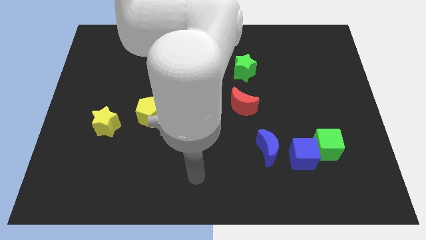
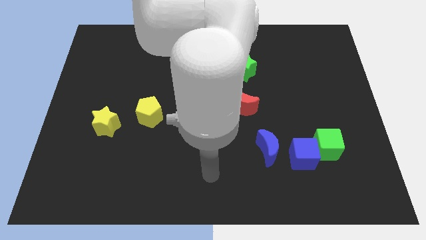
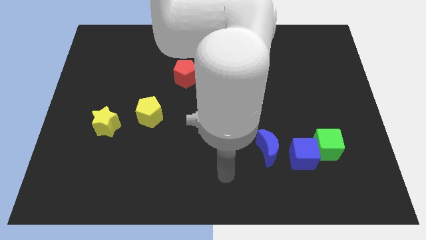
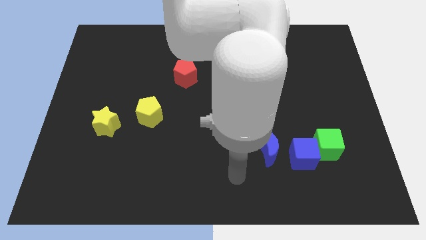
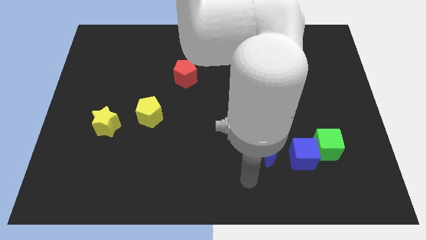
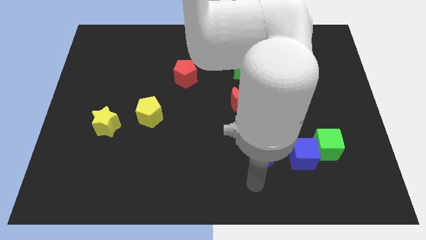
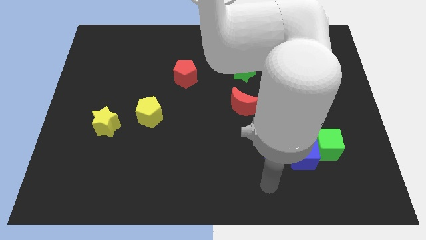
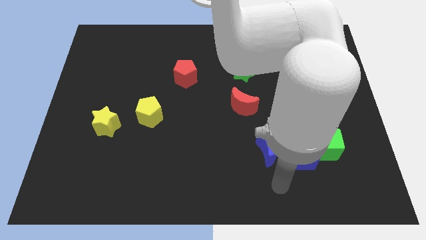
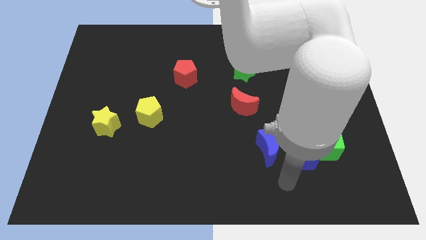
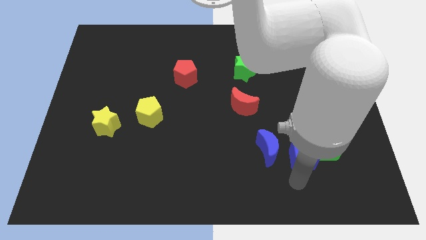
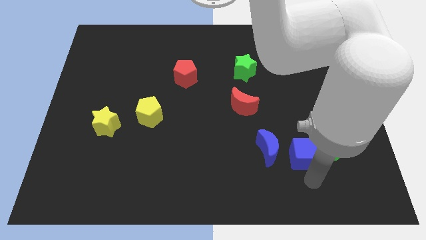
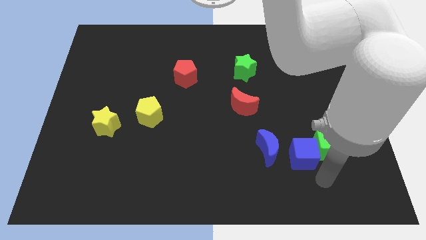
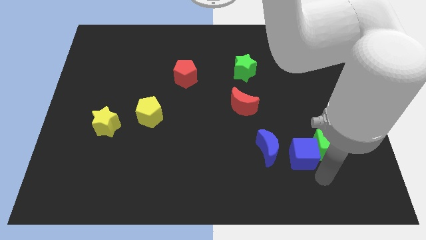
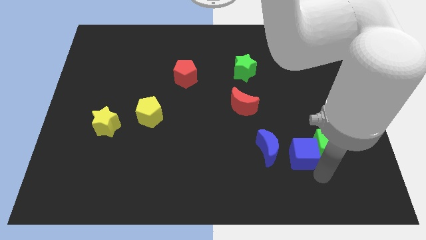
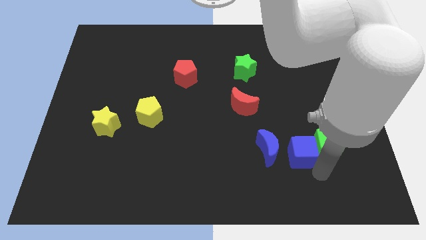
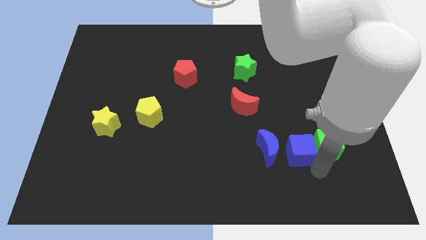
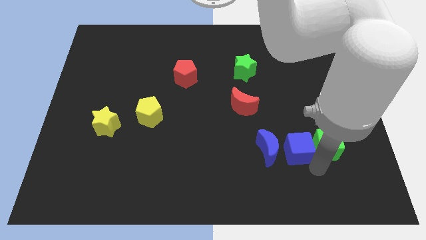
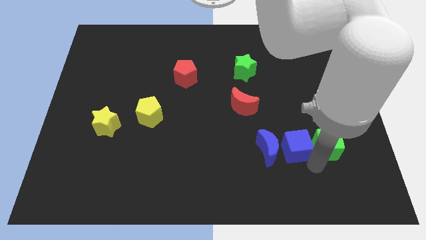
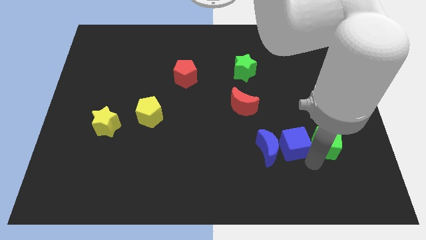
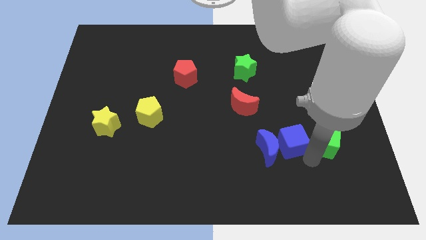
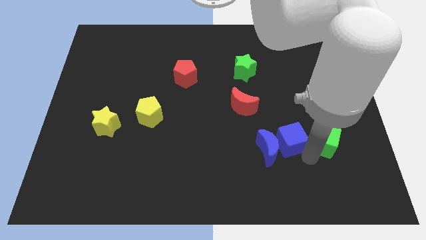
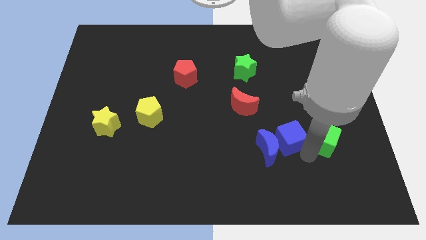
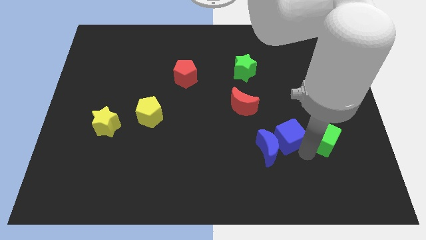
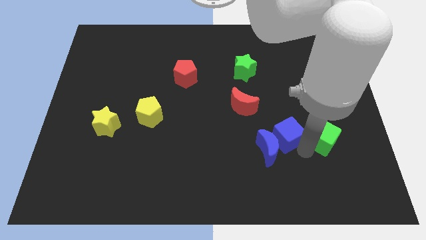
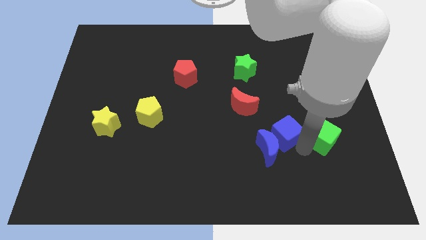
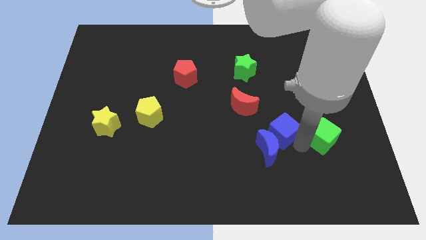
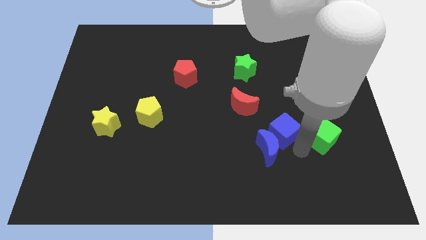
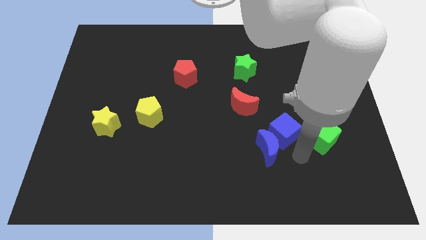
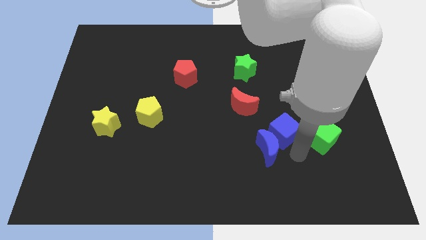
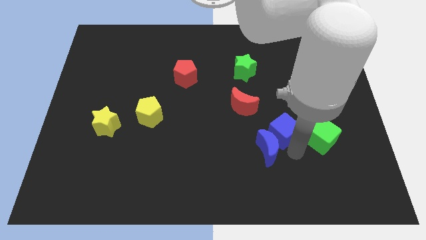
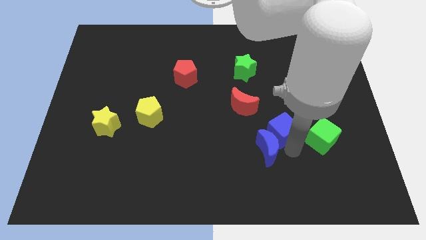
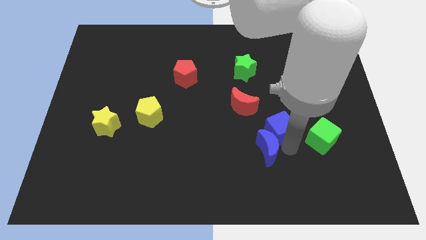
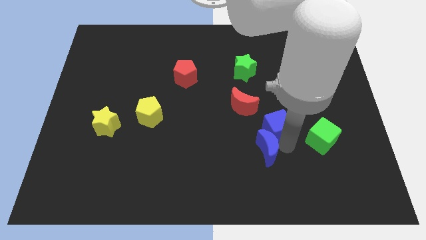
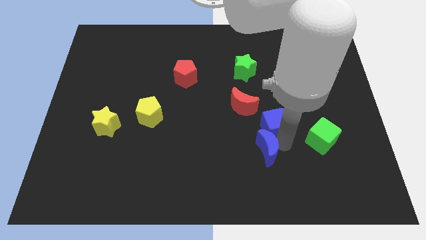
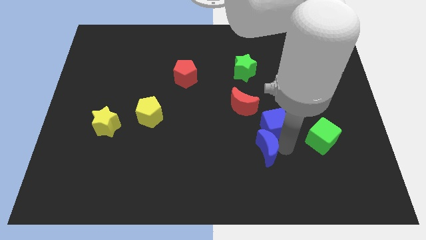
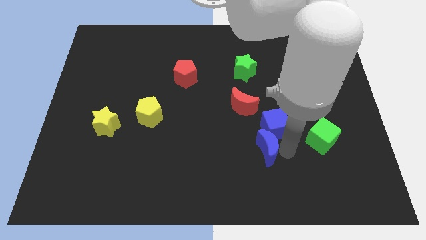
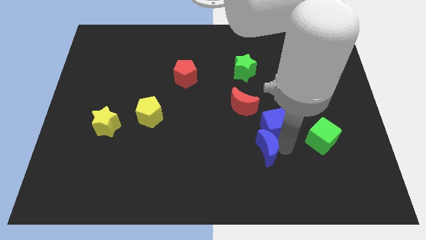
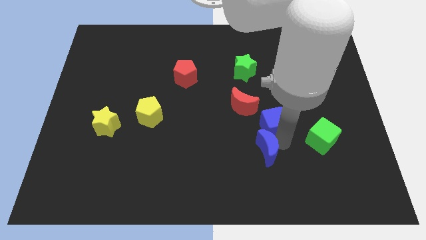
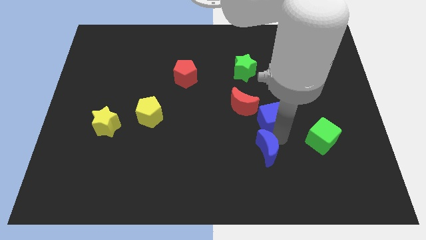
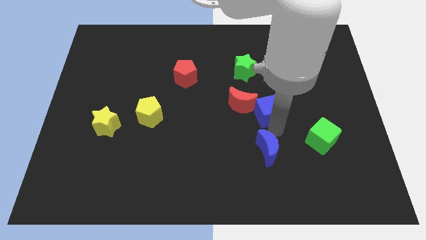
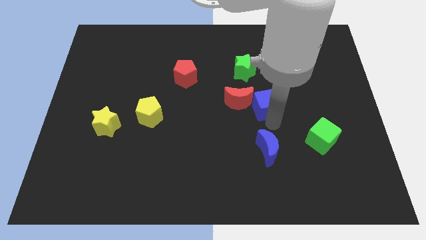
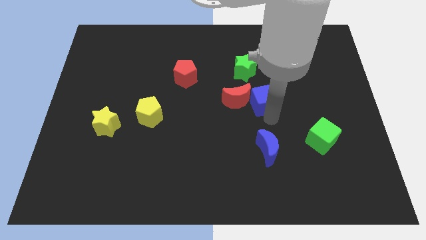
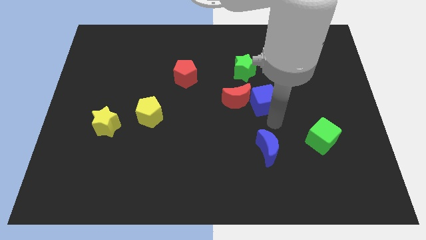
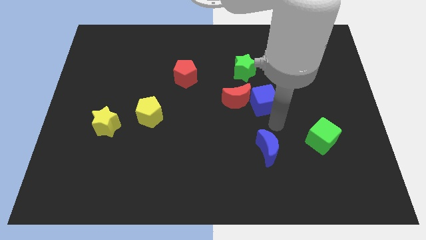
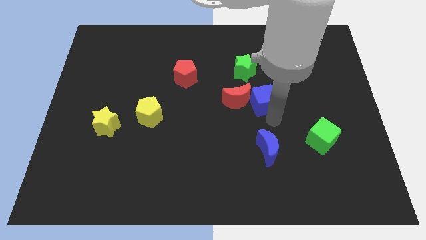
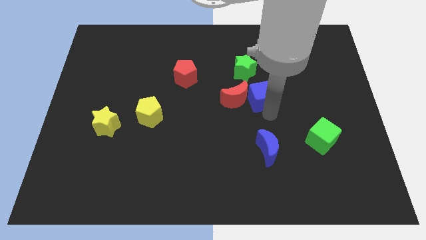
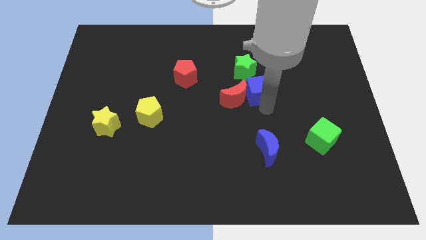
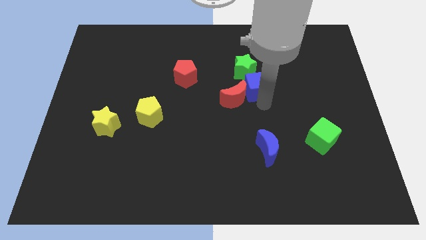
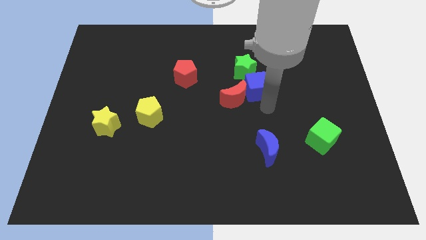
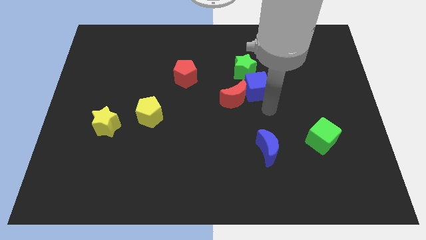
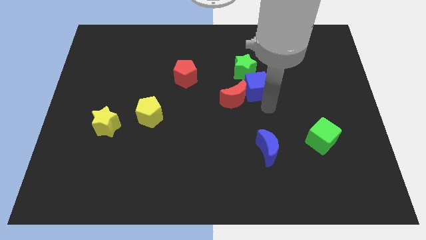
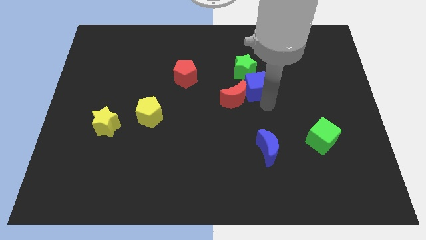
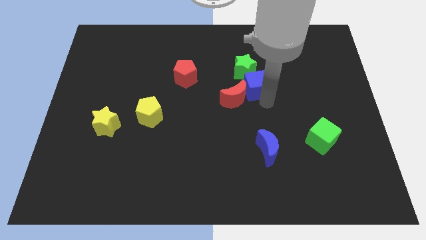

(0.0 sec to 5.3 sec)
push the blue cube to the green star

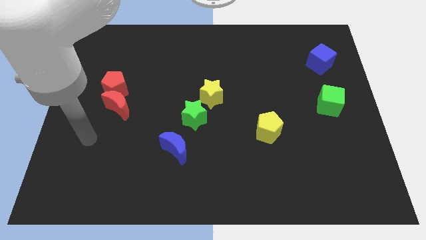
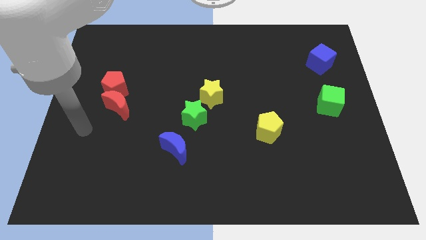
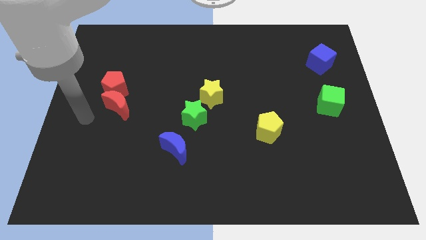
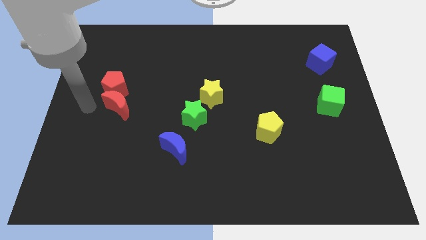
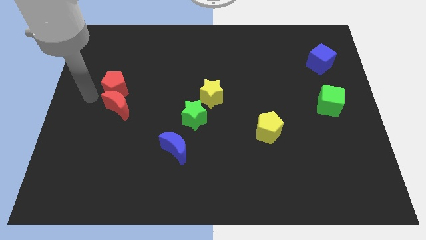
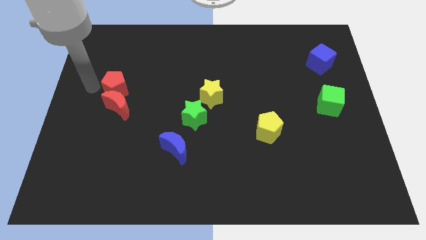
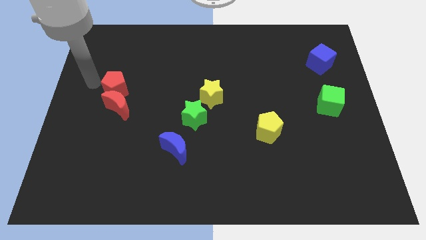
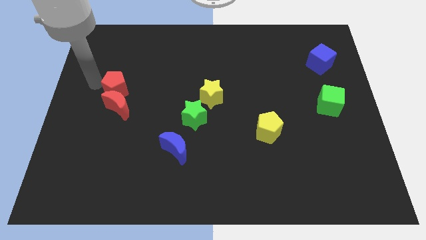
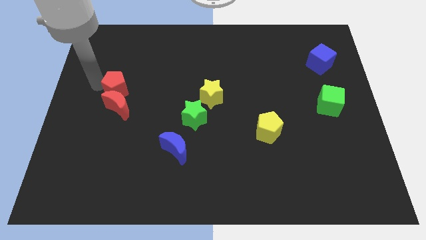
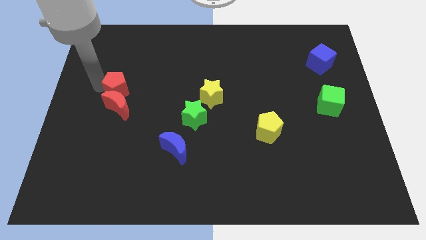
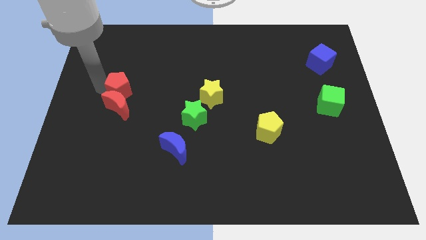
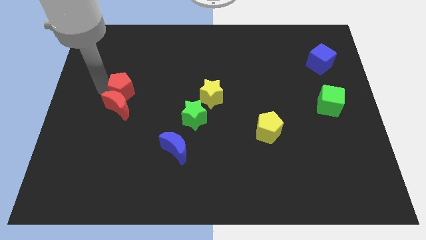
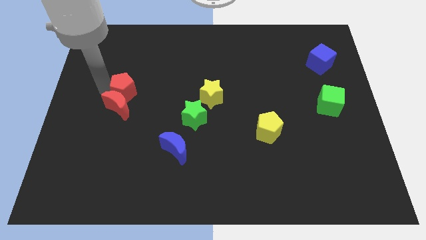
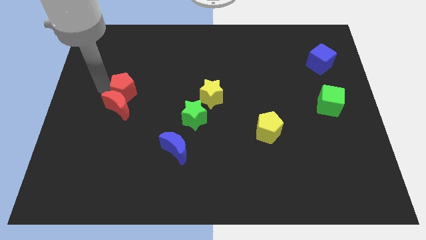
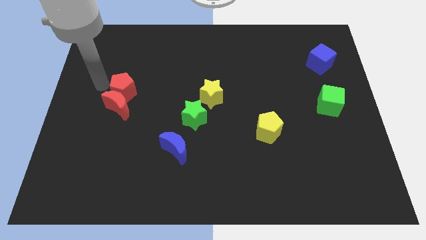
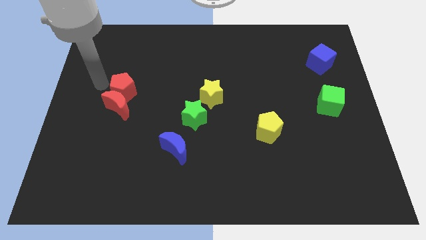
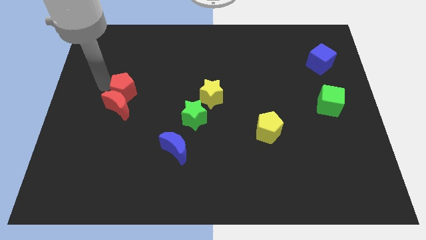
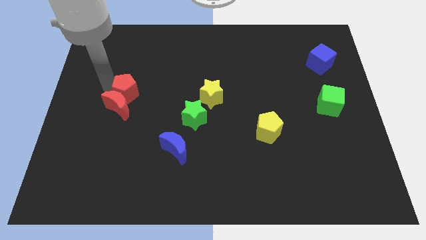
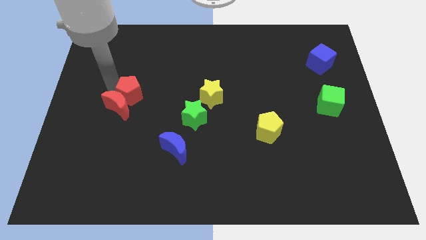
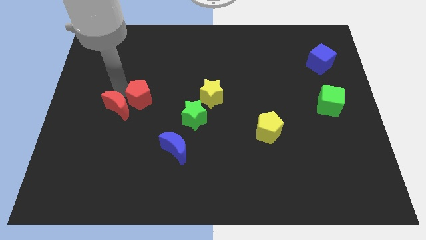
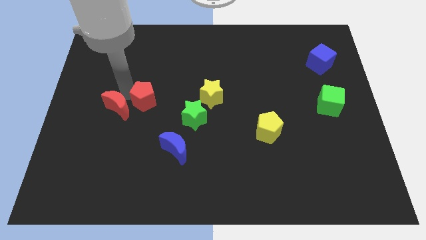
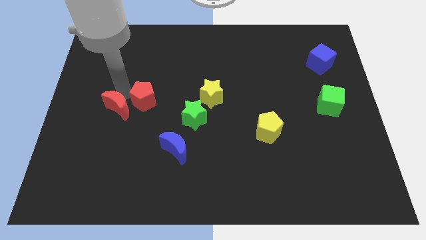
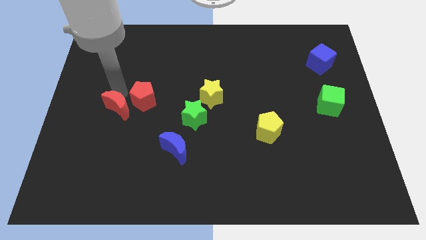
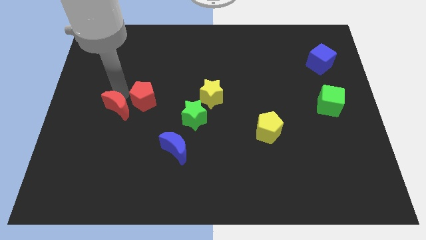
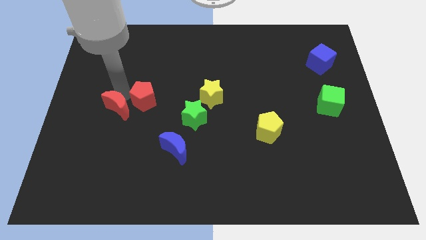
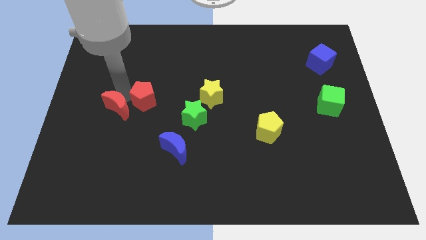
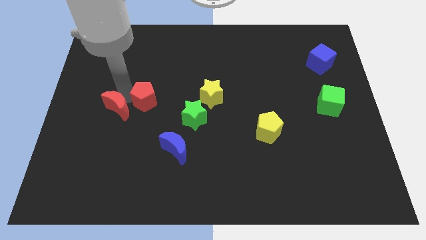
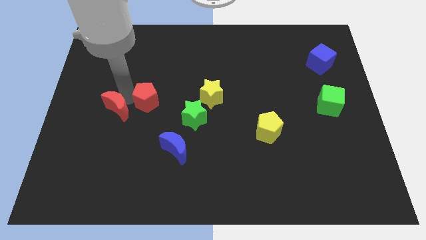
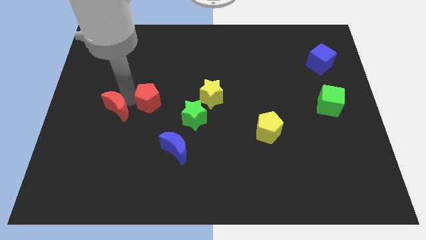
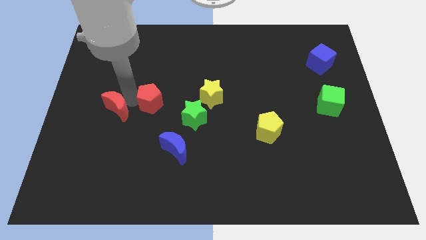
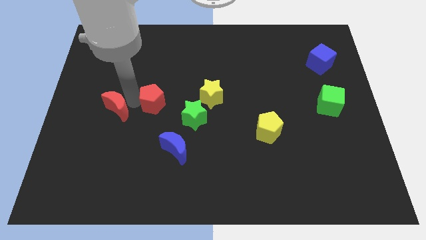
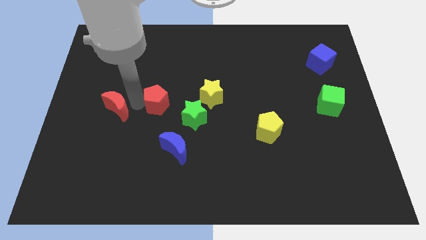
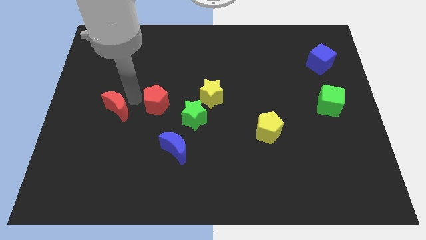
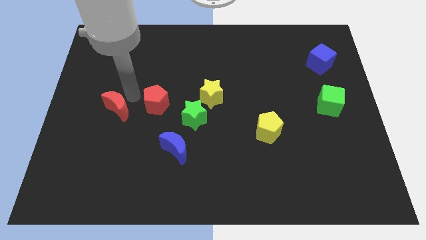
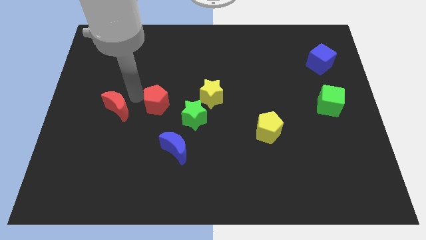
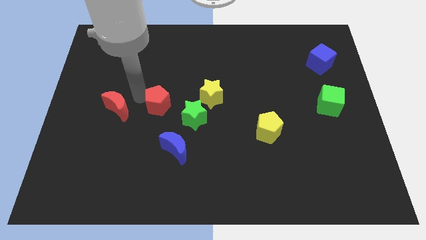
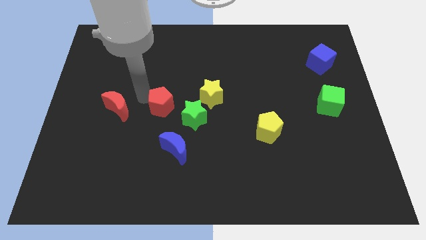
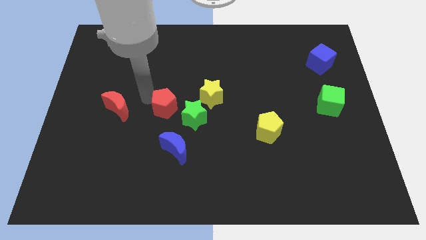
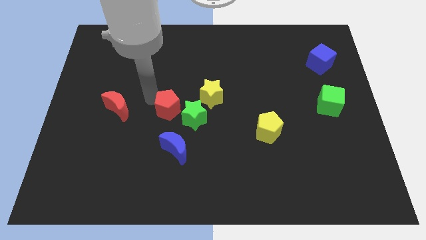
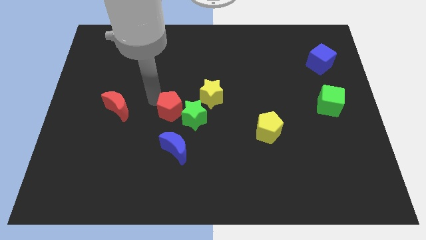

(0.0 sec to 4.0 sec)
slide the red pentagon towards the green star
